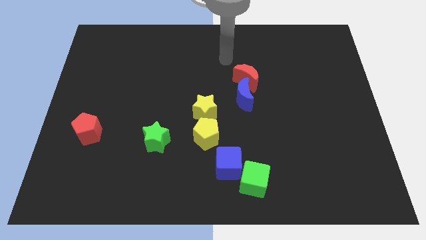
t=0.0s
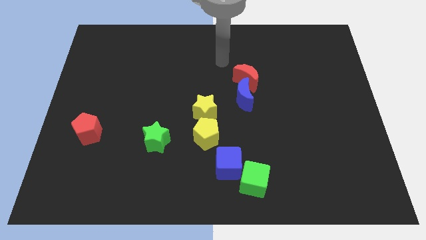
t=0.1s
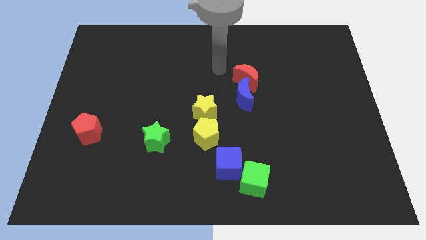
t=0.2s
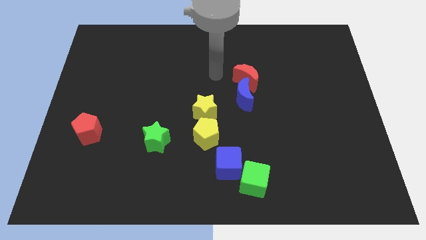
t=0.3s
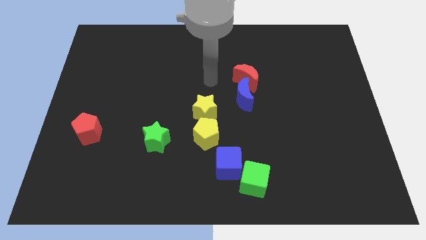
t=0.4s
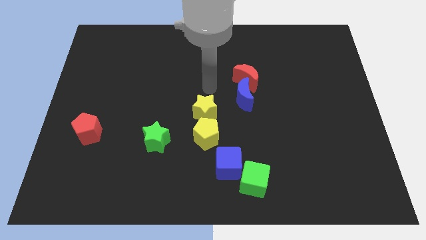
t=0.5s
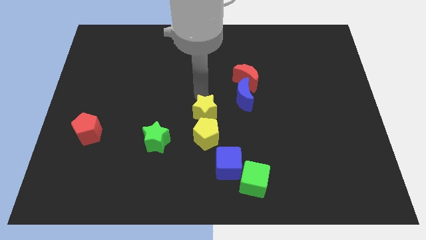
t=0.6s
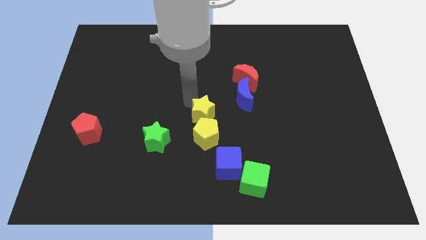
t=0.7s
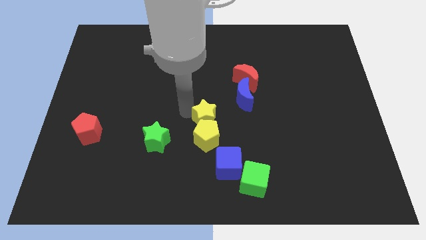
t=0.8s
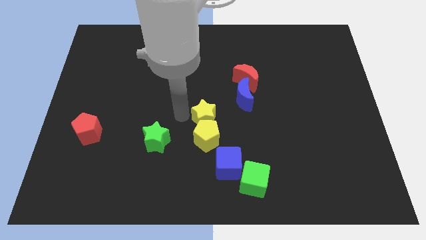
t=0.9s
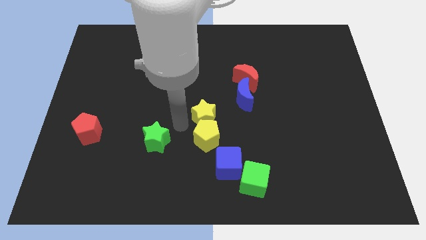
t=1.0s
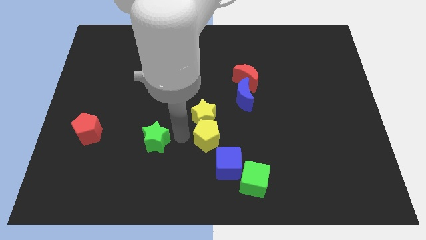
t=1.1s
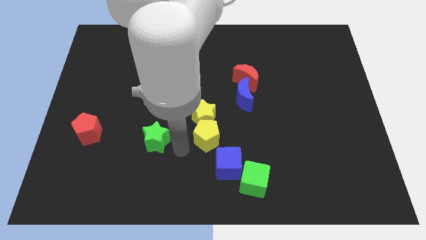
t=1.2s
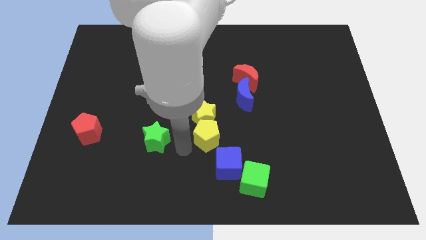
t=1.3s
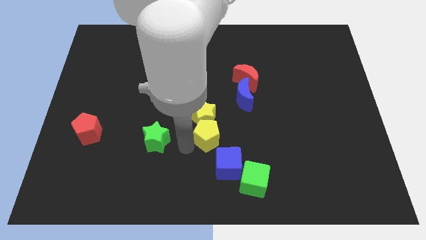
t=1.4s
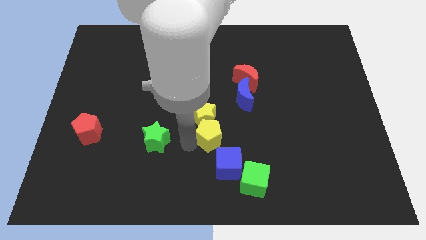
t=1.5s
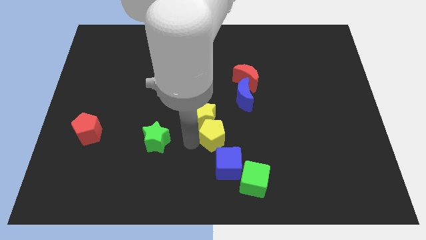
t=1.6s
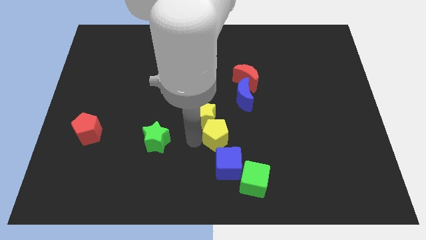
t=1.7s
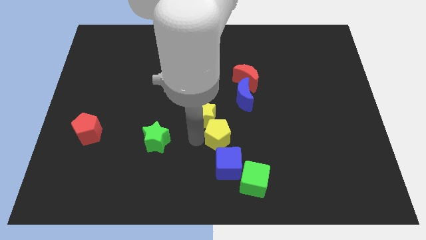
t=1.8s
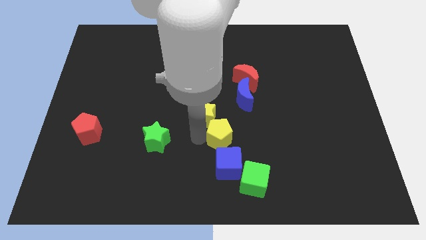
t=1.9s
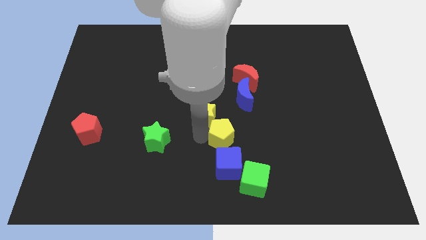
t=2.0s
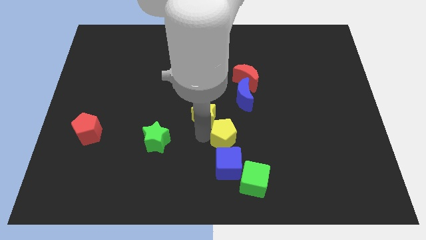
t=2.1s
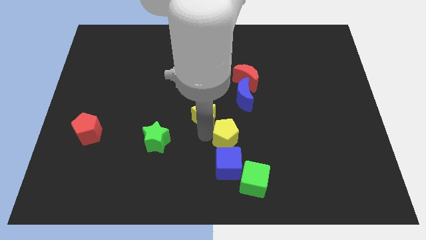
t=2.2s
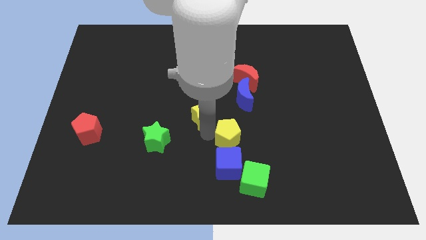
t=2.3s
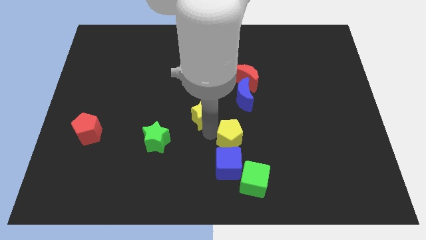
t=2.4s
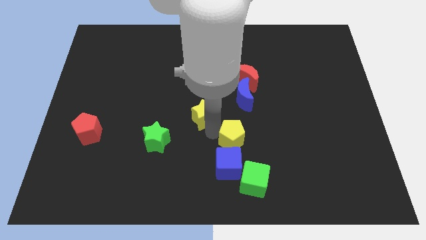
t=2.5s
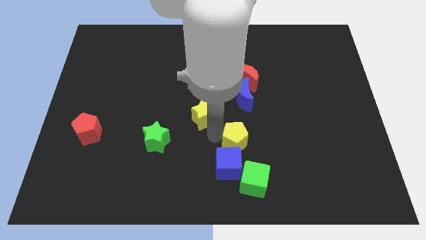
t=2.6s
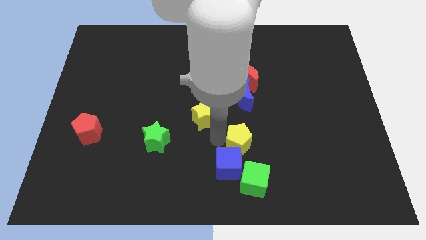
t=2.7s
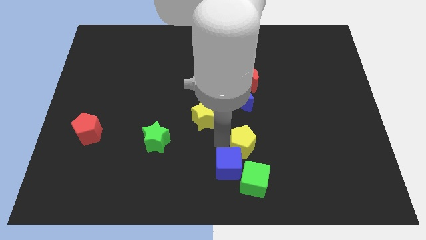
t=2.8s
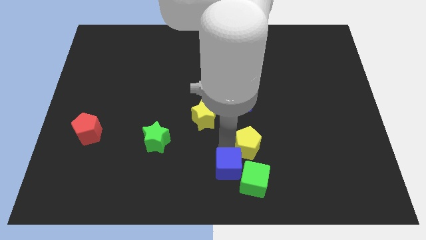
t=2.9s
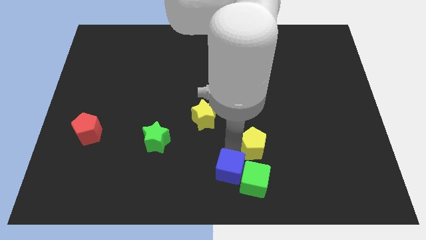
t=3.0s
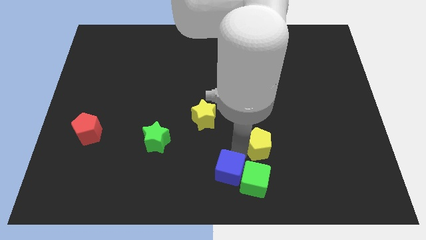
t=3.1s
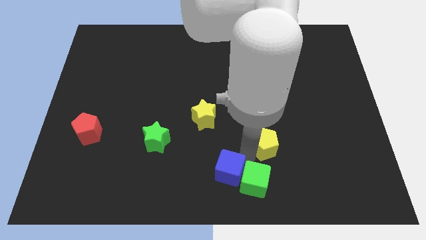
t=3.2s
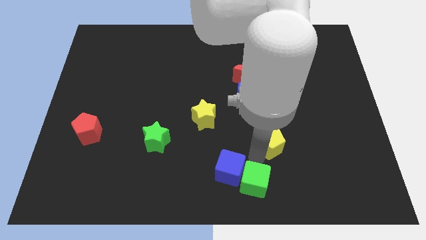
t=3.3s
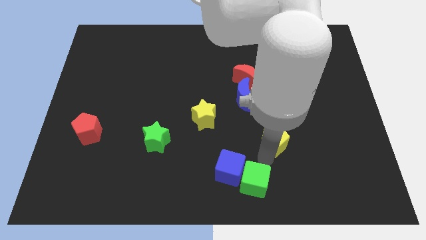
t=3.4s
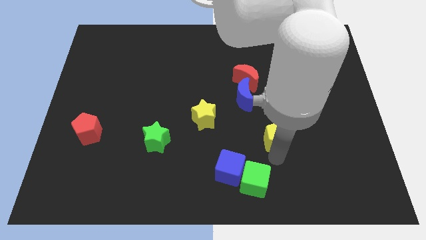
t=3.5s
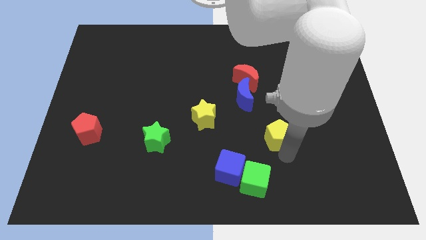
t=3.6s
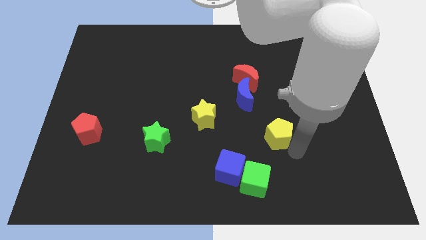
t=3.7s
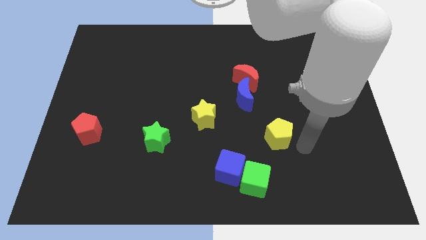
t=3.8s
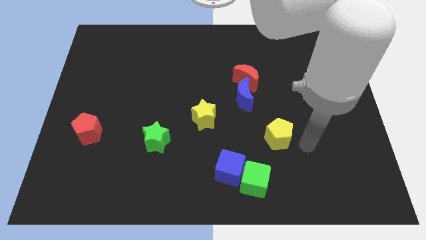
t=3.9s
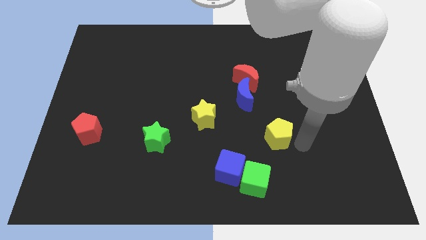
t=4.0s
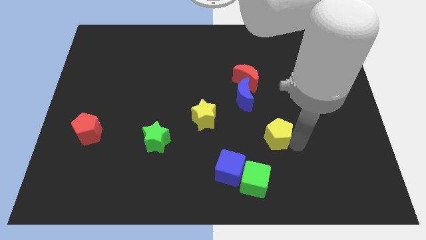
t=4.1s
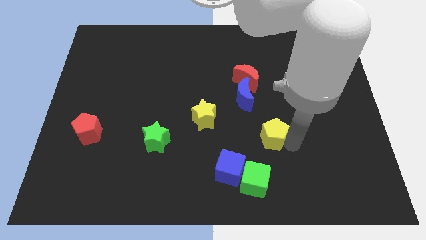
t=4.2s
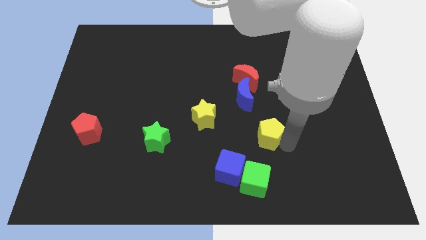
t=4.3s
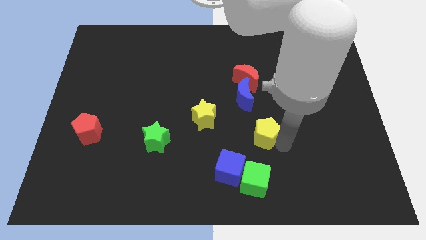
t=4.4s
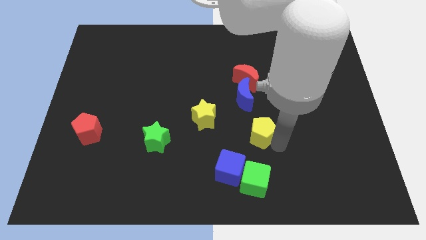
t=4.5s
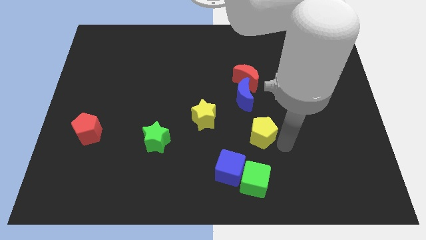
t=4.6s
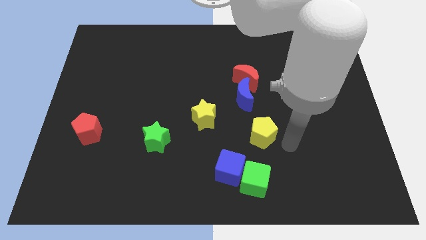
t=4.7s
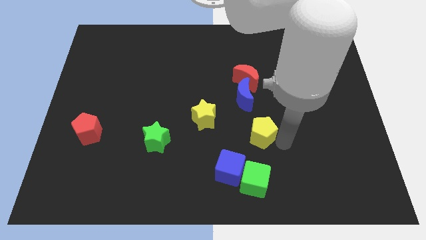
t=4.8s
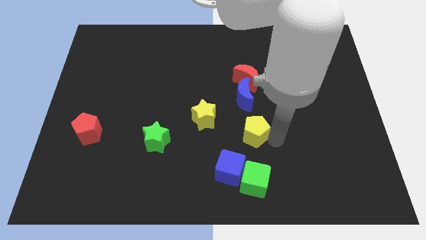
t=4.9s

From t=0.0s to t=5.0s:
slide the yellow pentagon below the red moon

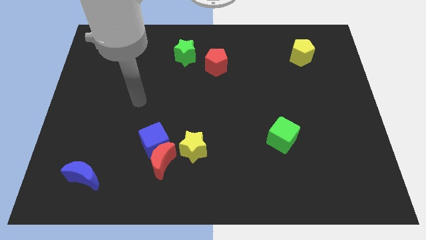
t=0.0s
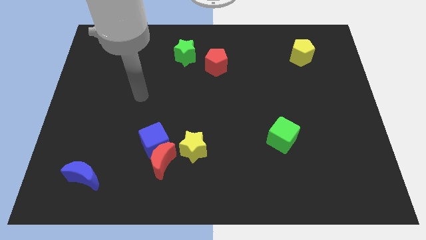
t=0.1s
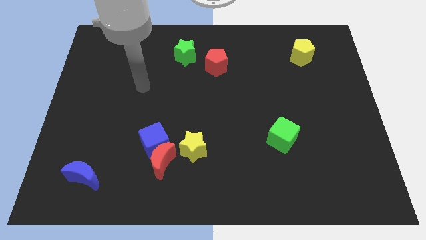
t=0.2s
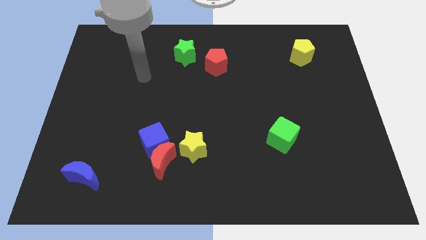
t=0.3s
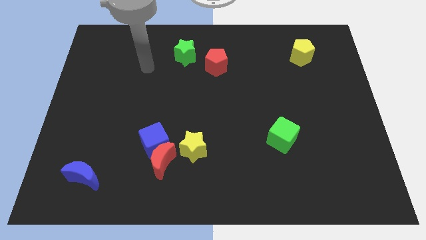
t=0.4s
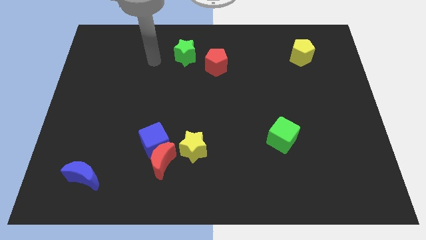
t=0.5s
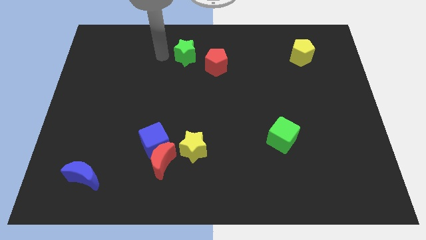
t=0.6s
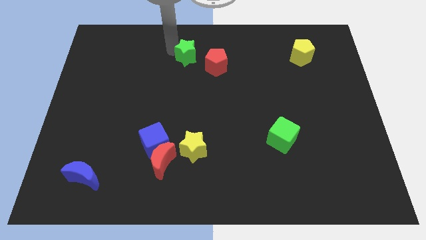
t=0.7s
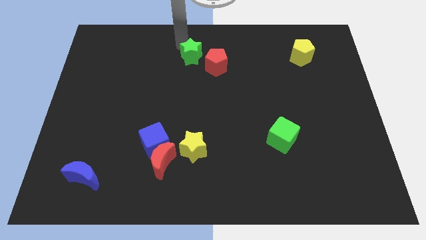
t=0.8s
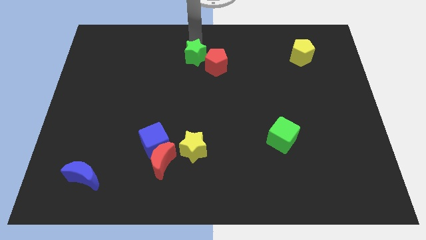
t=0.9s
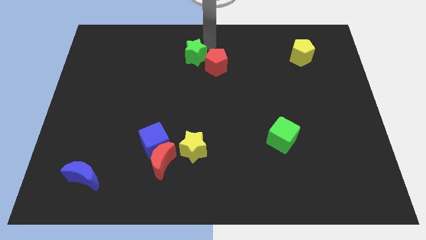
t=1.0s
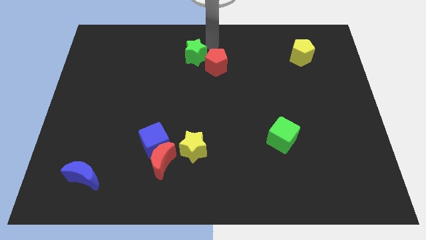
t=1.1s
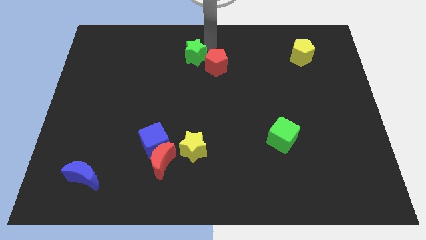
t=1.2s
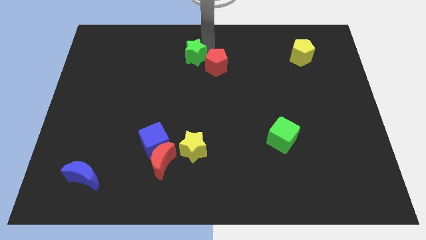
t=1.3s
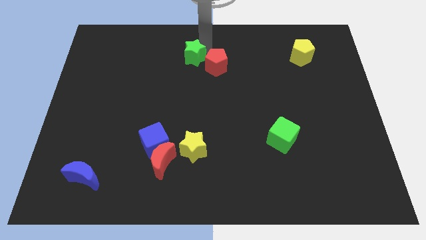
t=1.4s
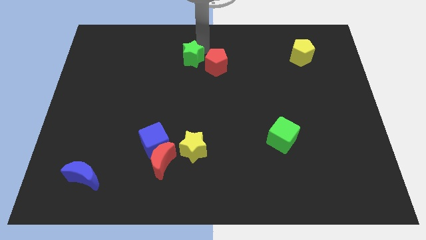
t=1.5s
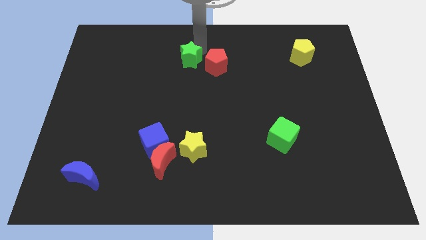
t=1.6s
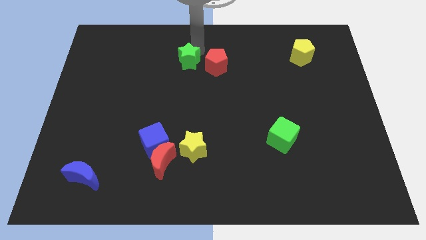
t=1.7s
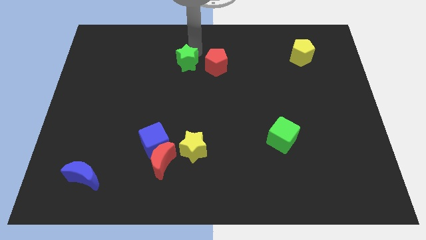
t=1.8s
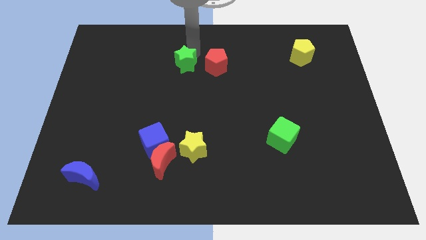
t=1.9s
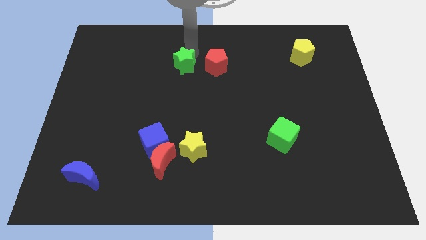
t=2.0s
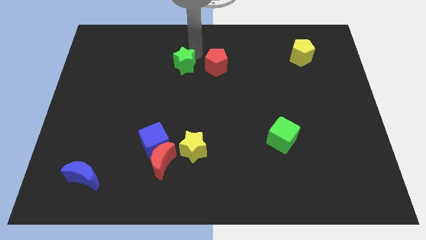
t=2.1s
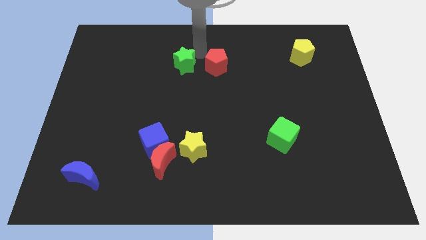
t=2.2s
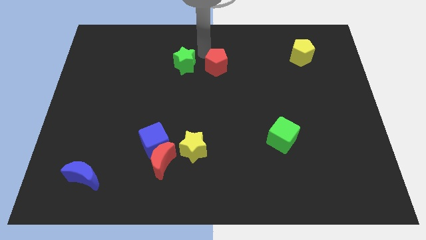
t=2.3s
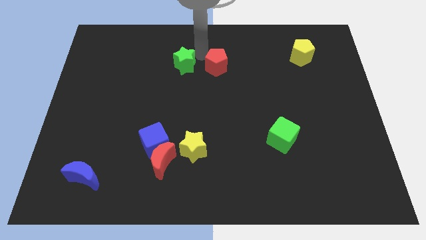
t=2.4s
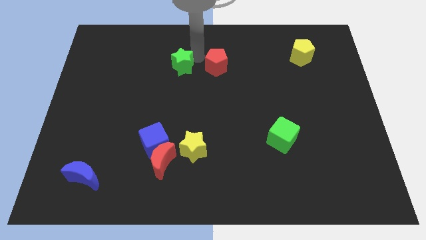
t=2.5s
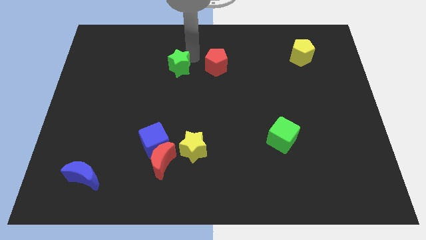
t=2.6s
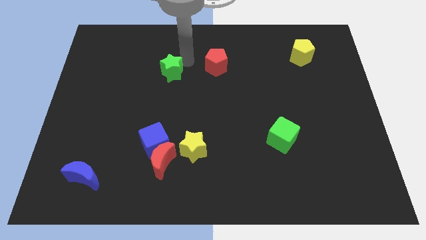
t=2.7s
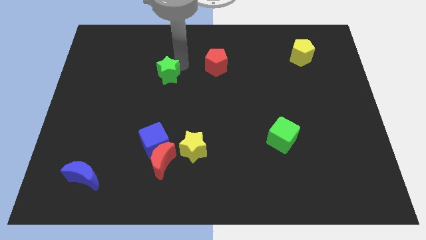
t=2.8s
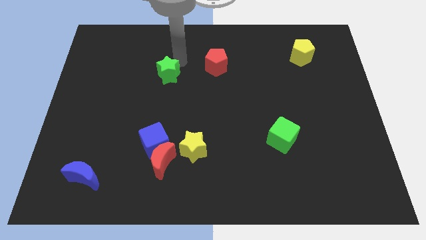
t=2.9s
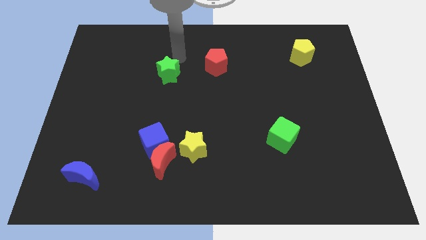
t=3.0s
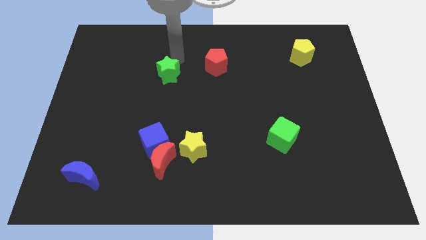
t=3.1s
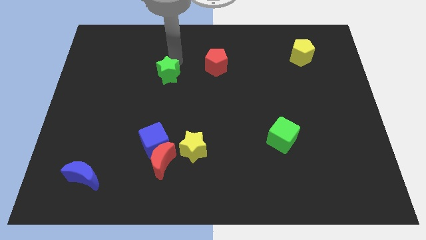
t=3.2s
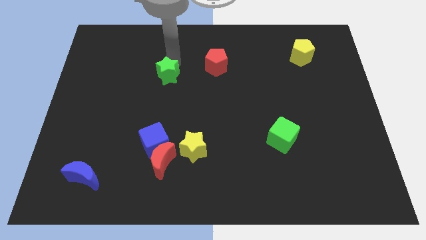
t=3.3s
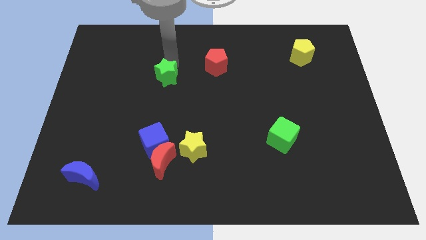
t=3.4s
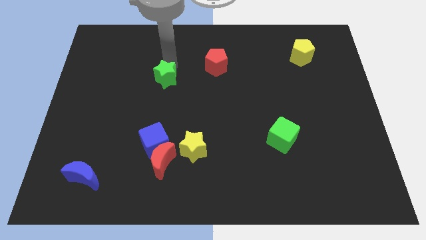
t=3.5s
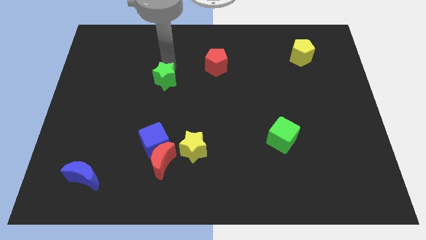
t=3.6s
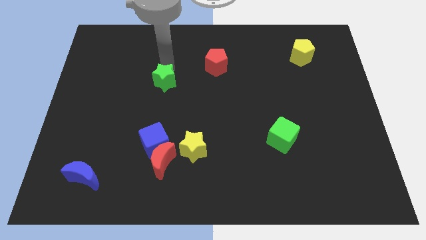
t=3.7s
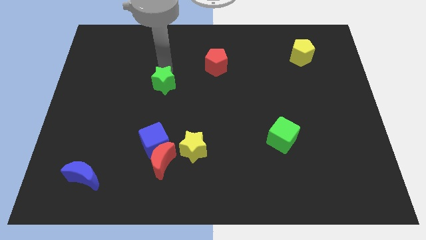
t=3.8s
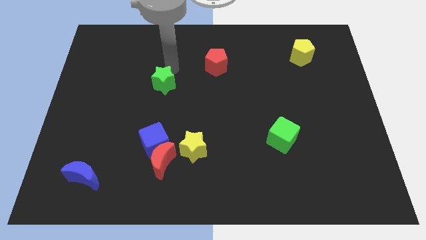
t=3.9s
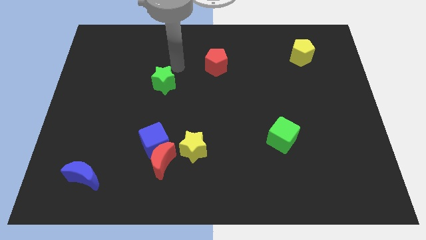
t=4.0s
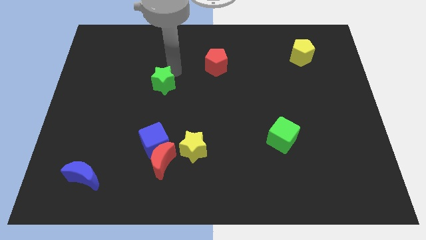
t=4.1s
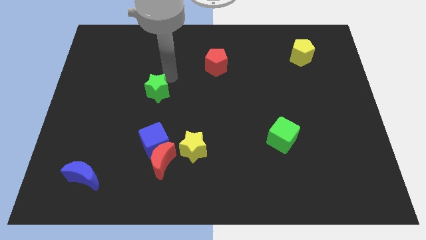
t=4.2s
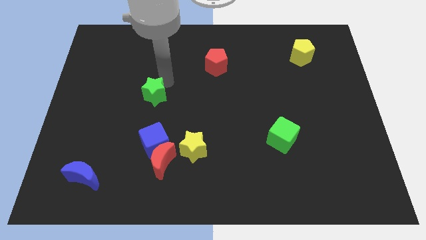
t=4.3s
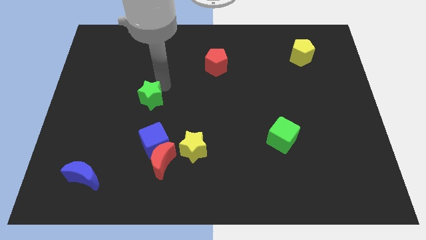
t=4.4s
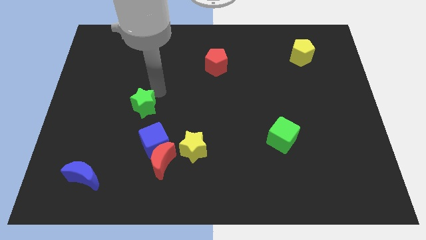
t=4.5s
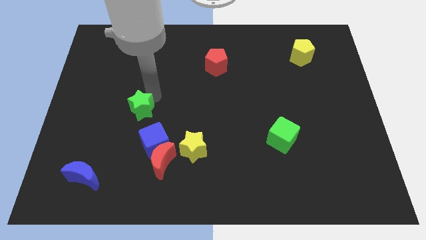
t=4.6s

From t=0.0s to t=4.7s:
push the green star to the top left of the blue cube
